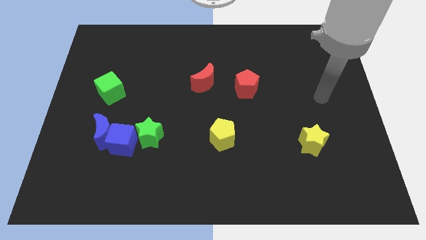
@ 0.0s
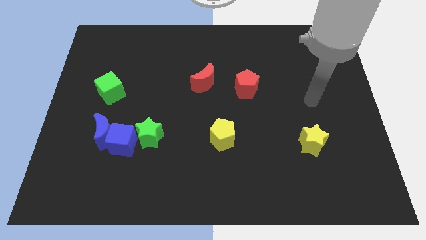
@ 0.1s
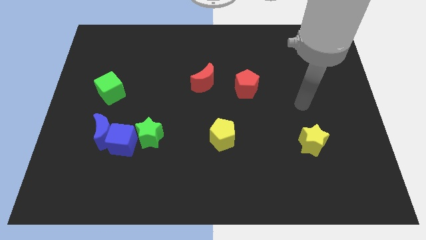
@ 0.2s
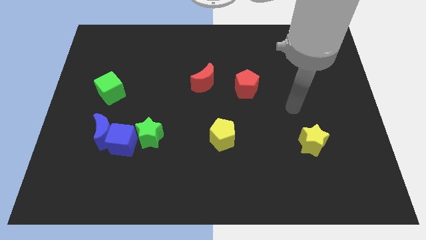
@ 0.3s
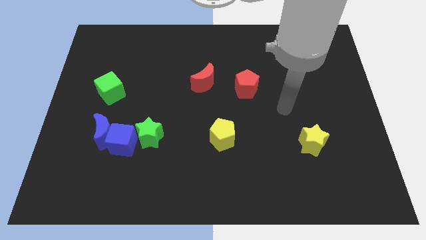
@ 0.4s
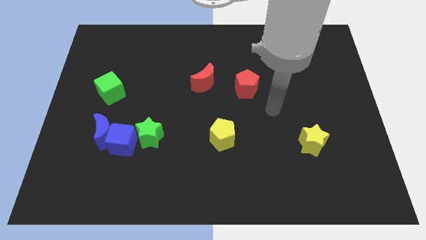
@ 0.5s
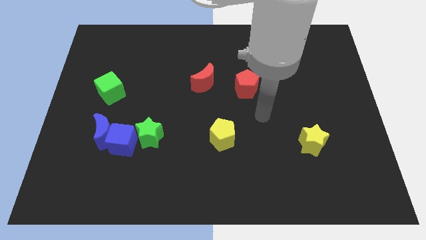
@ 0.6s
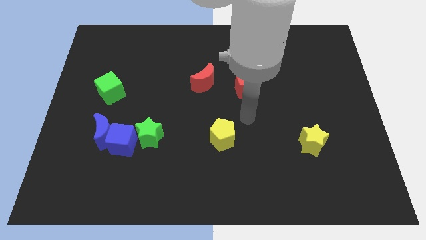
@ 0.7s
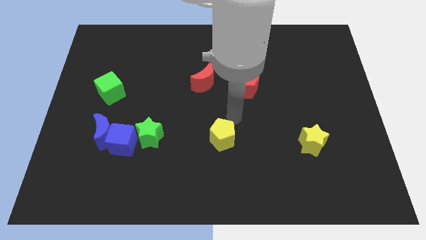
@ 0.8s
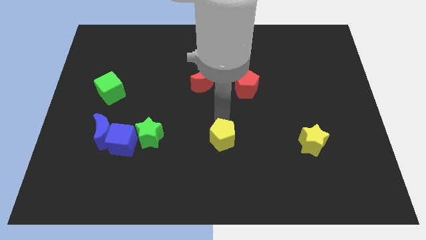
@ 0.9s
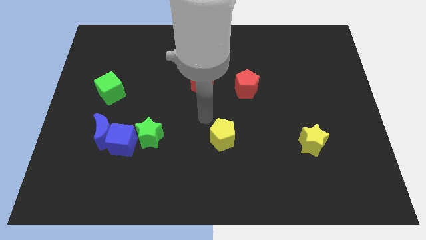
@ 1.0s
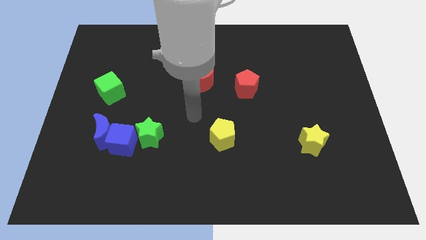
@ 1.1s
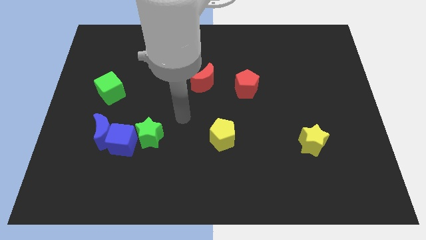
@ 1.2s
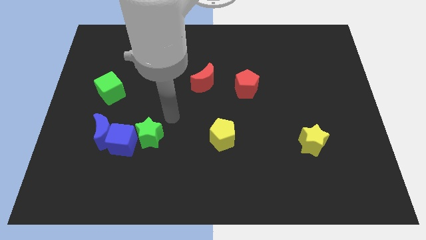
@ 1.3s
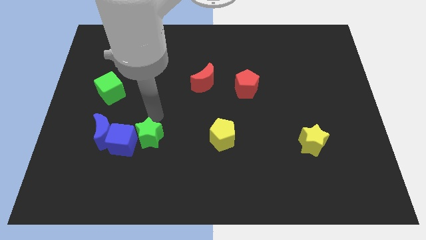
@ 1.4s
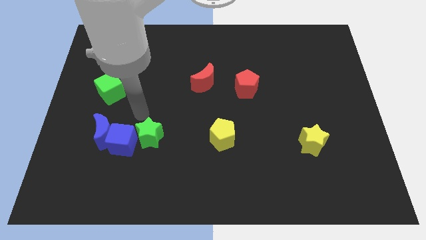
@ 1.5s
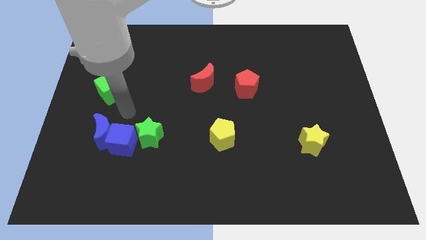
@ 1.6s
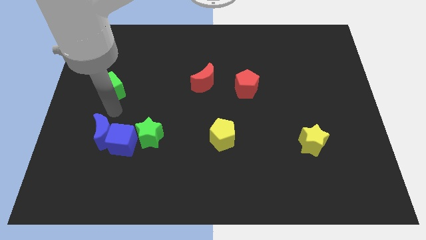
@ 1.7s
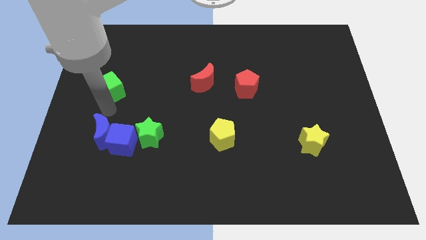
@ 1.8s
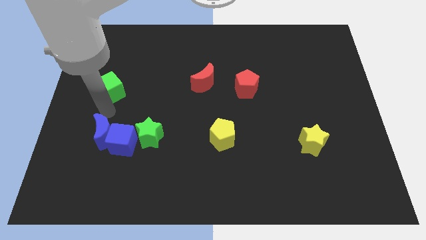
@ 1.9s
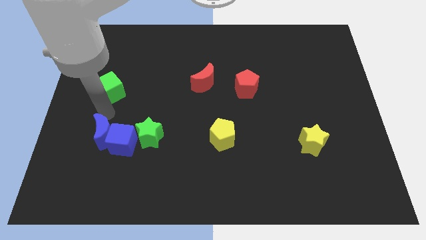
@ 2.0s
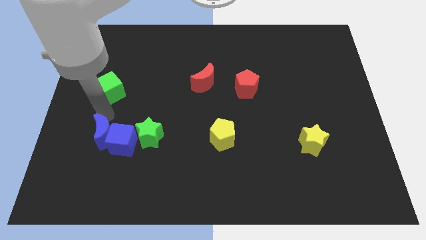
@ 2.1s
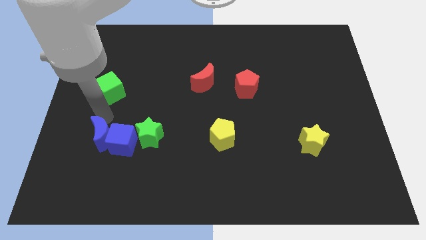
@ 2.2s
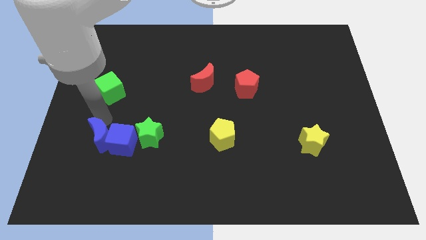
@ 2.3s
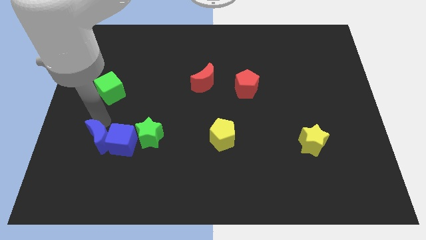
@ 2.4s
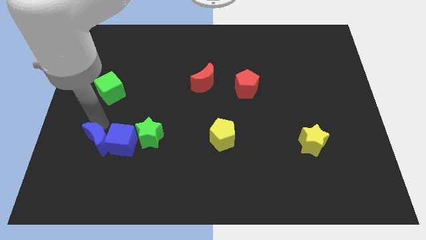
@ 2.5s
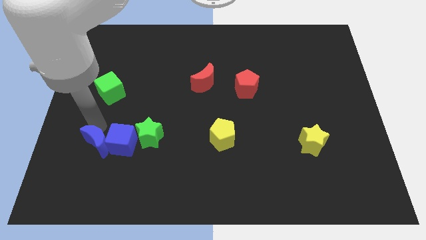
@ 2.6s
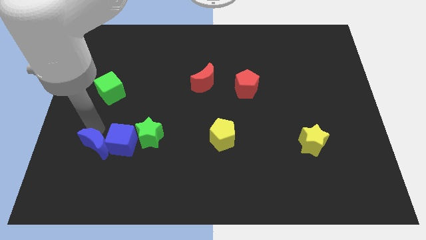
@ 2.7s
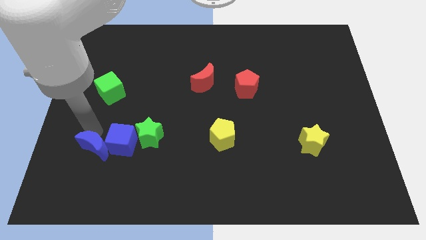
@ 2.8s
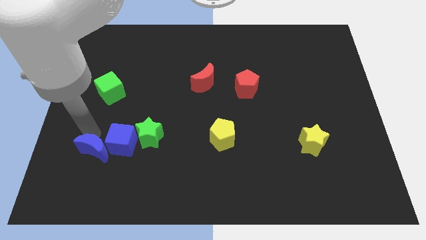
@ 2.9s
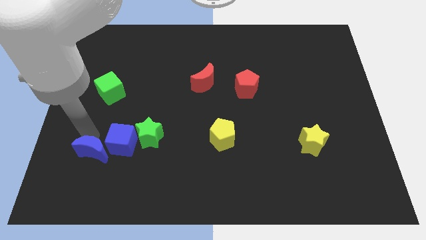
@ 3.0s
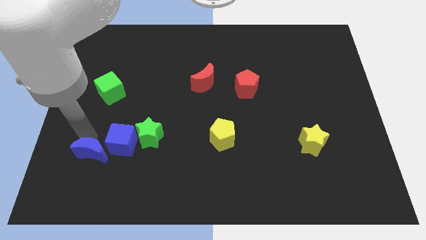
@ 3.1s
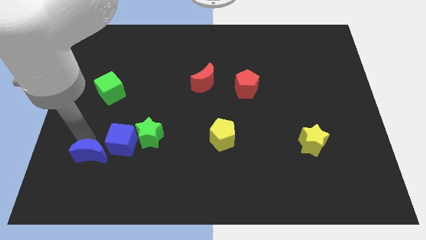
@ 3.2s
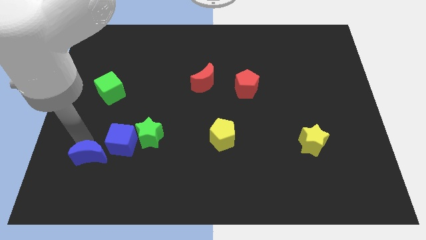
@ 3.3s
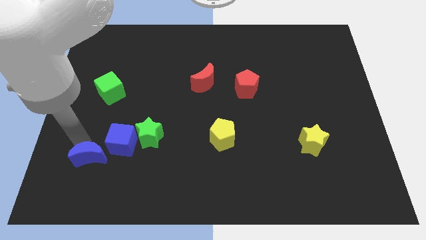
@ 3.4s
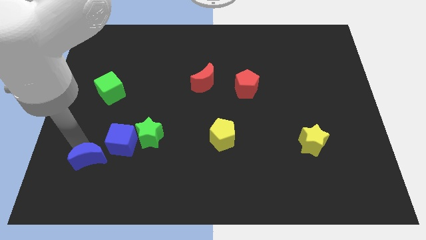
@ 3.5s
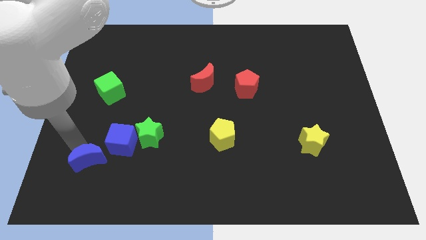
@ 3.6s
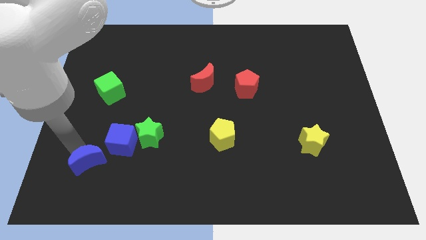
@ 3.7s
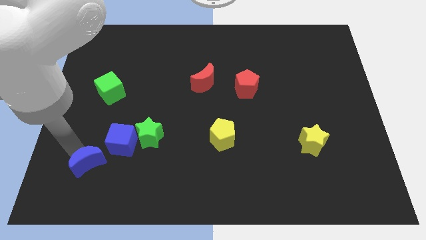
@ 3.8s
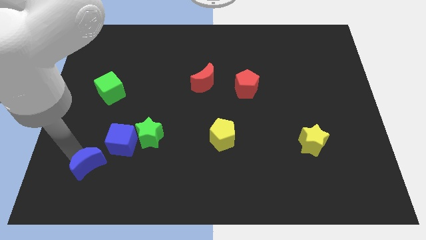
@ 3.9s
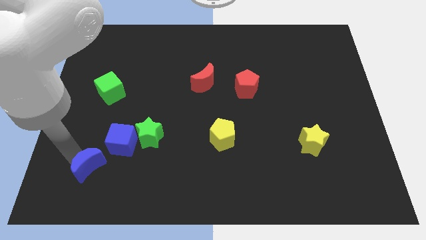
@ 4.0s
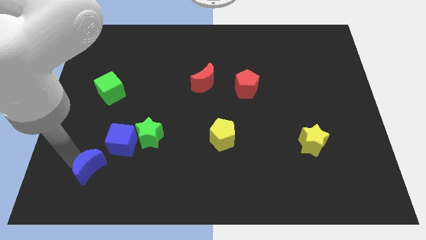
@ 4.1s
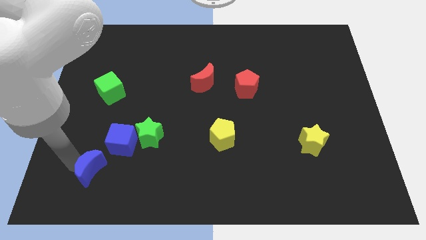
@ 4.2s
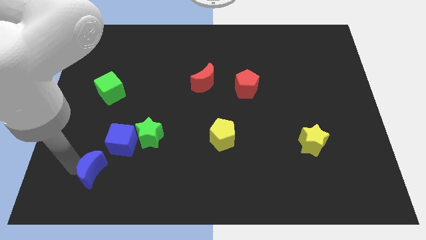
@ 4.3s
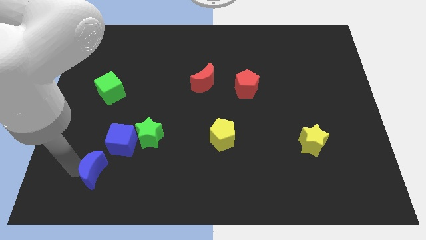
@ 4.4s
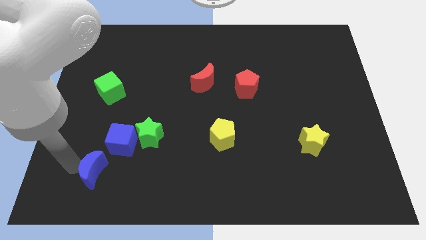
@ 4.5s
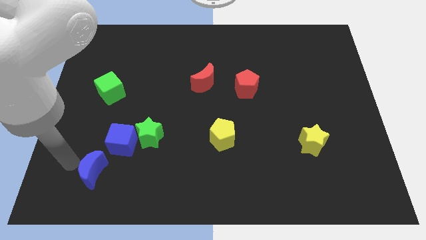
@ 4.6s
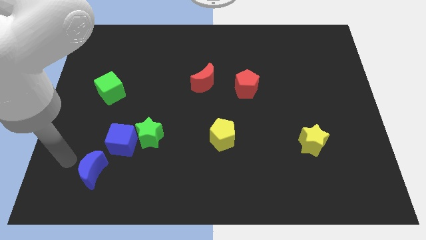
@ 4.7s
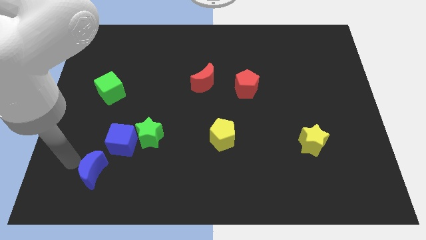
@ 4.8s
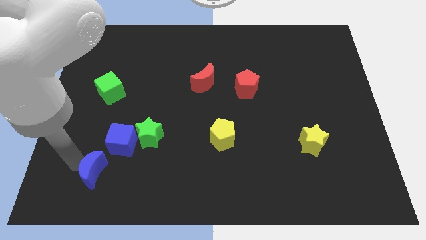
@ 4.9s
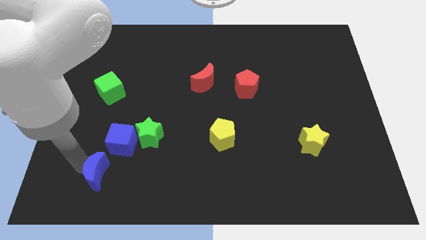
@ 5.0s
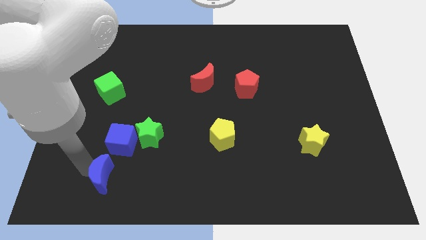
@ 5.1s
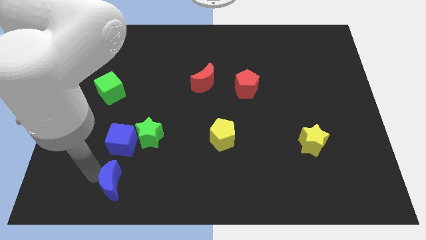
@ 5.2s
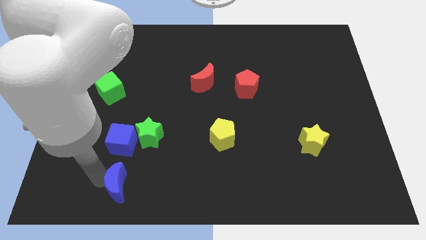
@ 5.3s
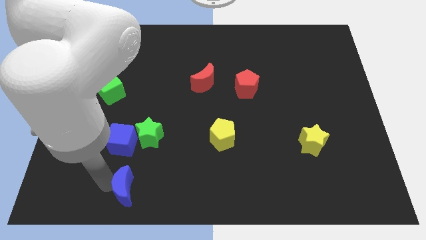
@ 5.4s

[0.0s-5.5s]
push the blue moon to the bottom of the green star

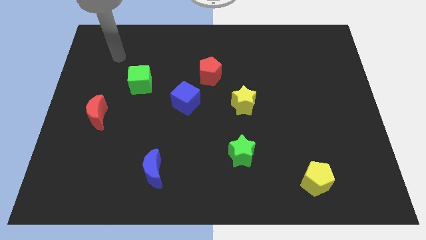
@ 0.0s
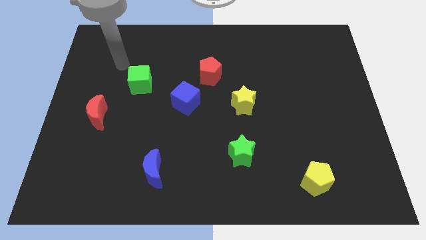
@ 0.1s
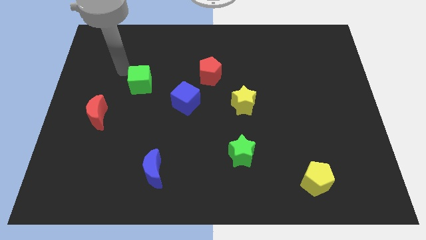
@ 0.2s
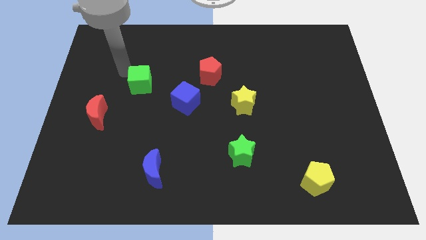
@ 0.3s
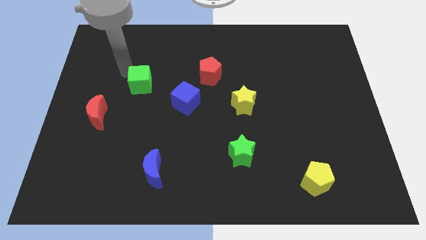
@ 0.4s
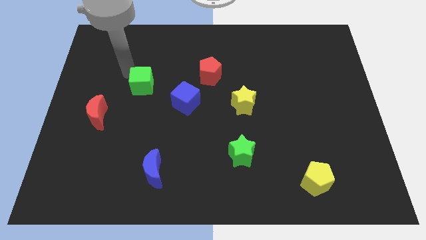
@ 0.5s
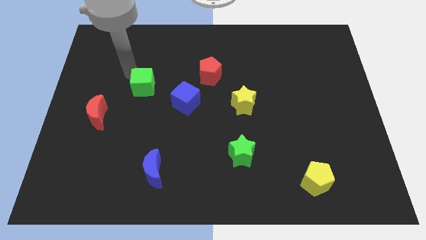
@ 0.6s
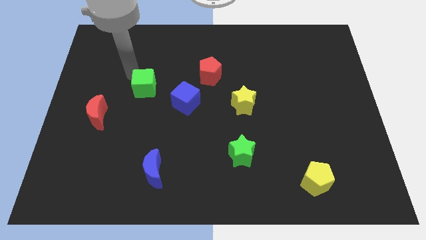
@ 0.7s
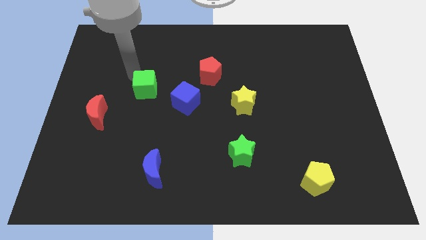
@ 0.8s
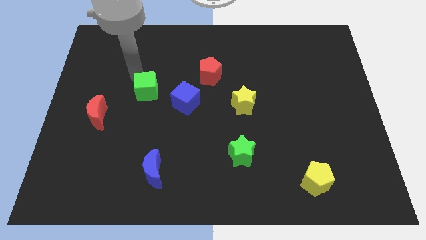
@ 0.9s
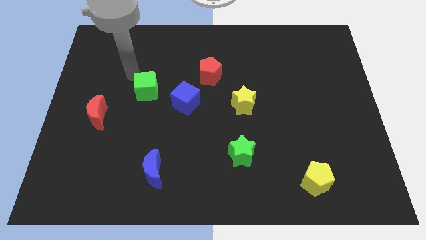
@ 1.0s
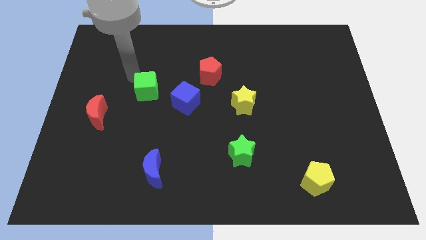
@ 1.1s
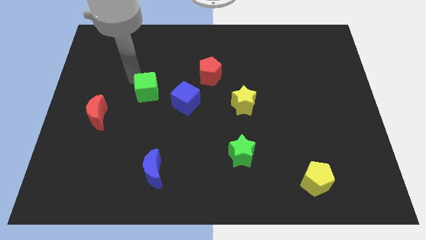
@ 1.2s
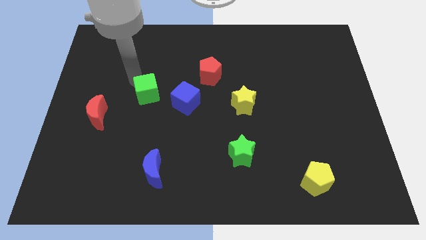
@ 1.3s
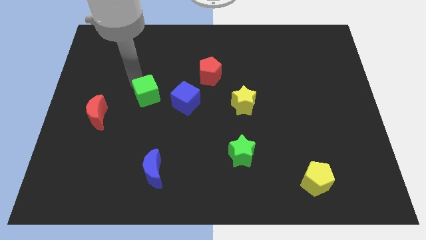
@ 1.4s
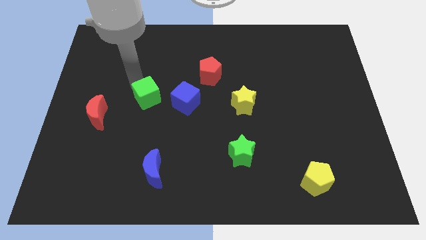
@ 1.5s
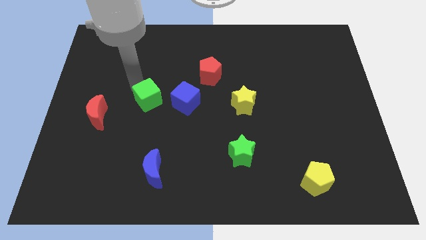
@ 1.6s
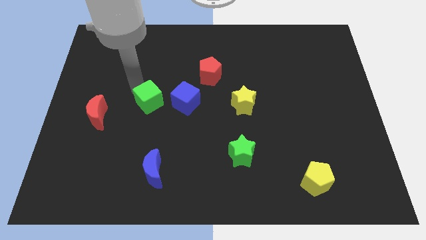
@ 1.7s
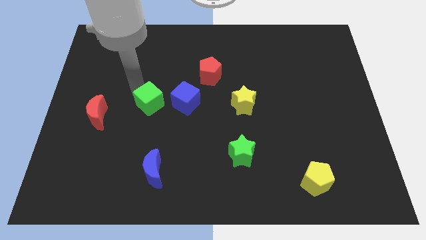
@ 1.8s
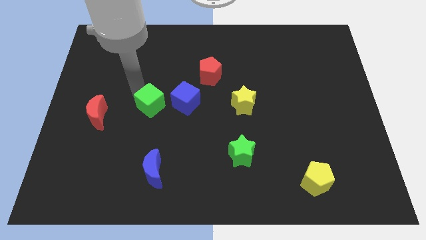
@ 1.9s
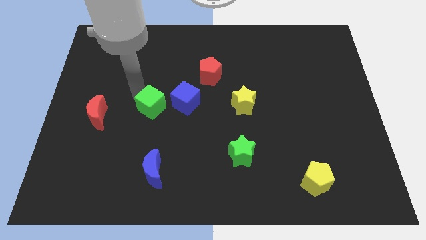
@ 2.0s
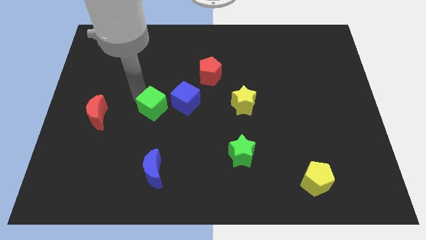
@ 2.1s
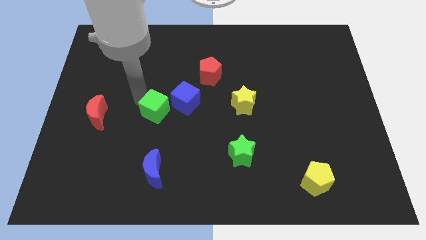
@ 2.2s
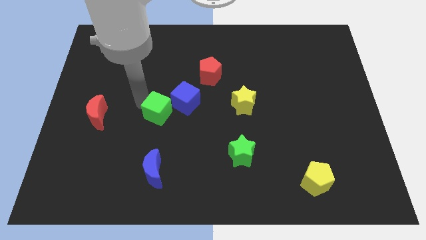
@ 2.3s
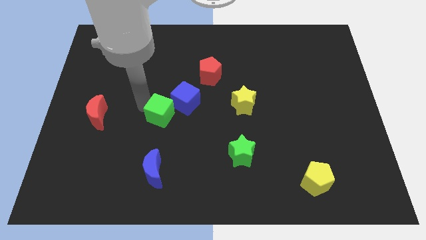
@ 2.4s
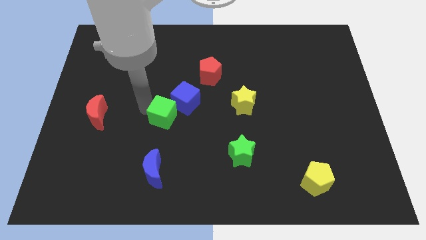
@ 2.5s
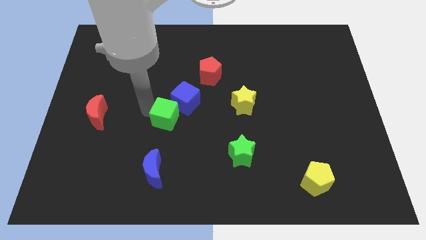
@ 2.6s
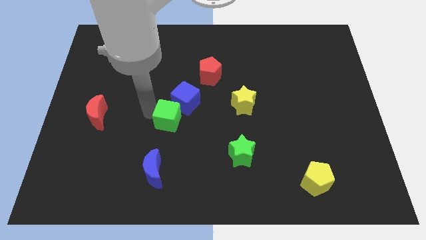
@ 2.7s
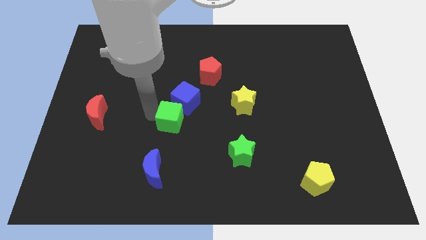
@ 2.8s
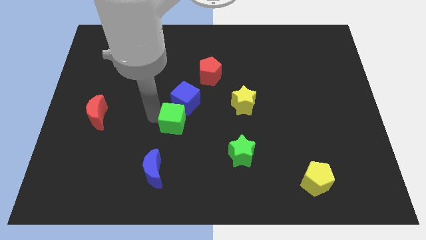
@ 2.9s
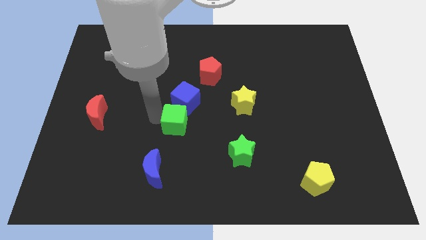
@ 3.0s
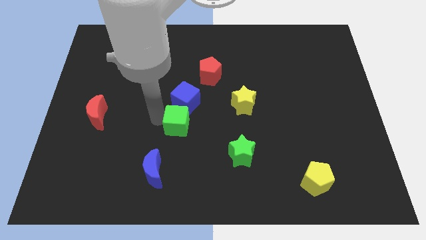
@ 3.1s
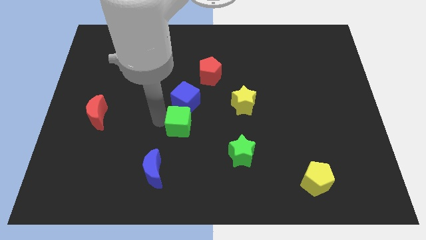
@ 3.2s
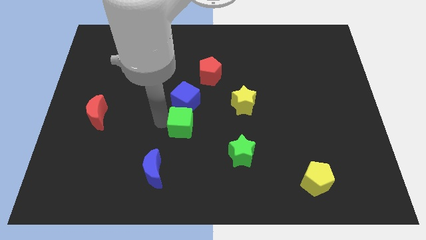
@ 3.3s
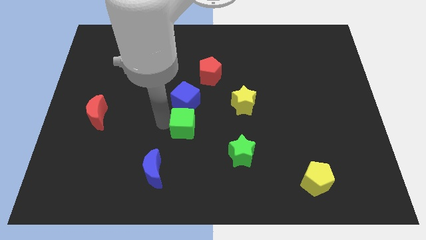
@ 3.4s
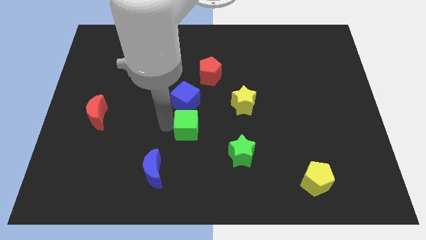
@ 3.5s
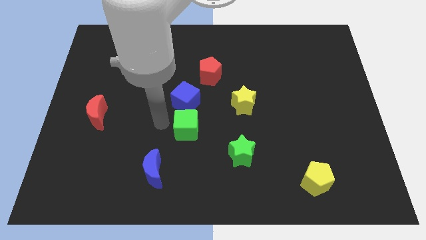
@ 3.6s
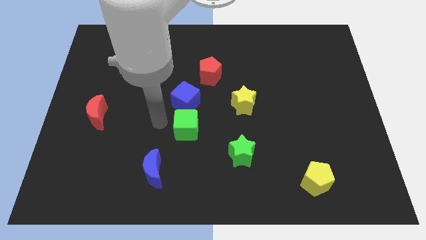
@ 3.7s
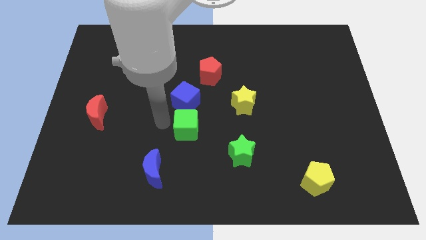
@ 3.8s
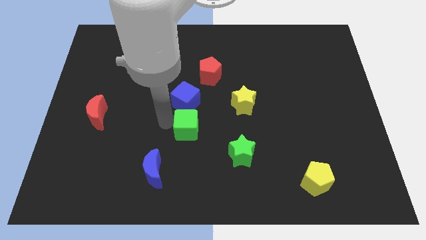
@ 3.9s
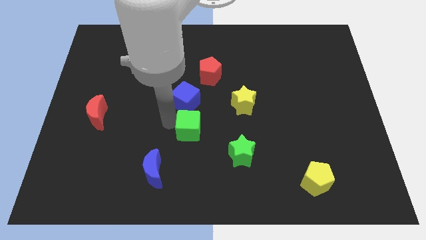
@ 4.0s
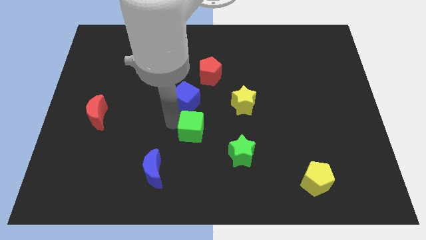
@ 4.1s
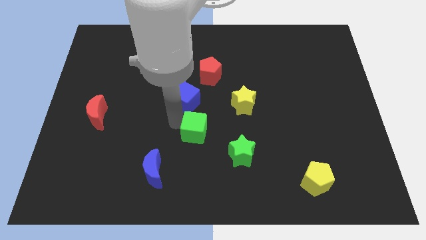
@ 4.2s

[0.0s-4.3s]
move the green cube to the top left side of the green star
